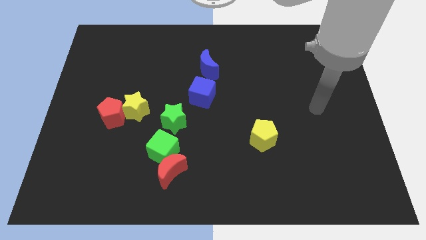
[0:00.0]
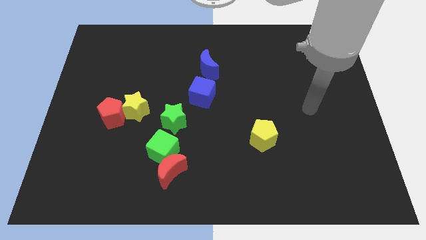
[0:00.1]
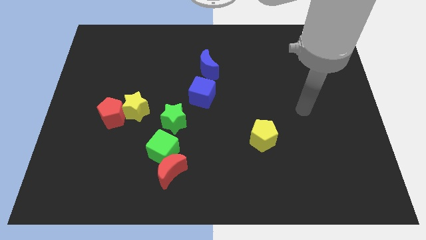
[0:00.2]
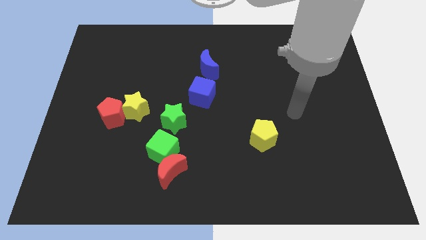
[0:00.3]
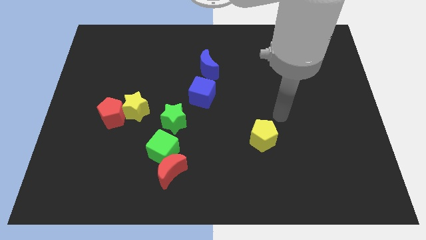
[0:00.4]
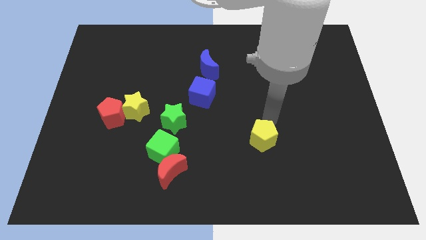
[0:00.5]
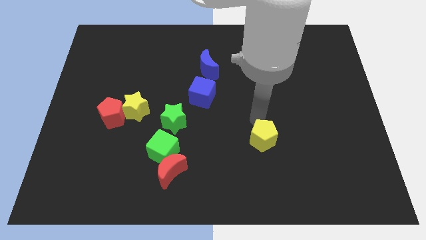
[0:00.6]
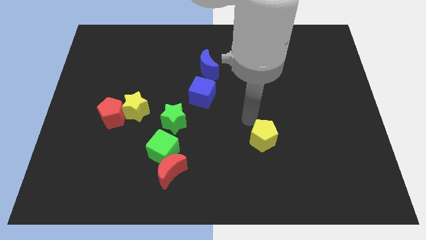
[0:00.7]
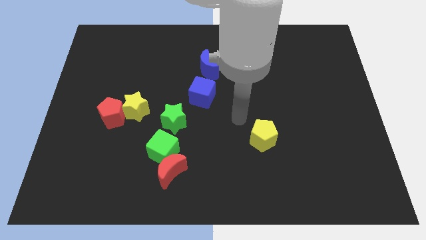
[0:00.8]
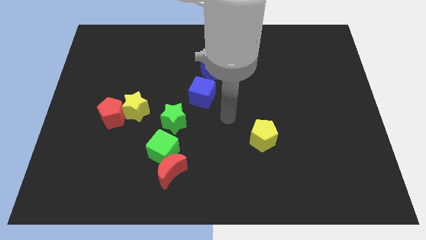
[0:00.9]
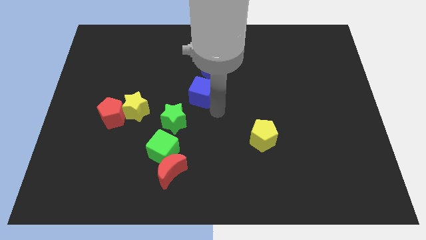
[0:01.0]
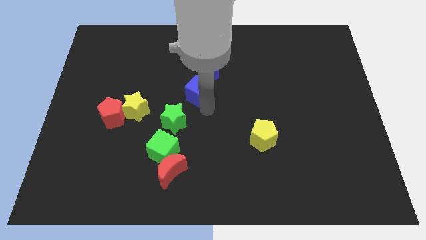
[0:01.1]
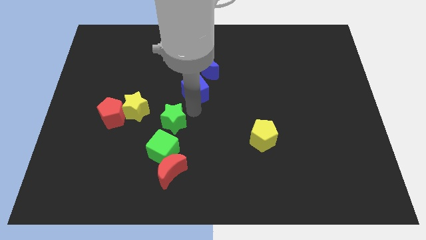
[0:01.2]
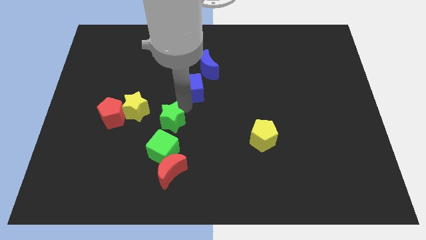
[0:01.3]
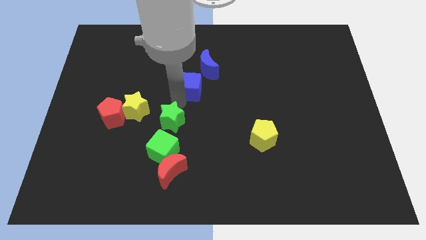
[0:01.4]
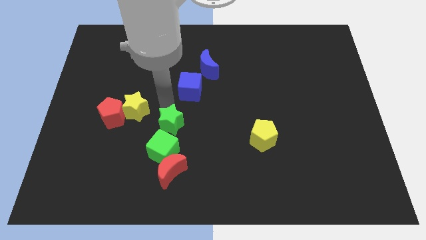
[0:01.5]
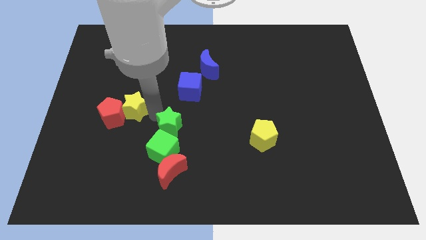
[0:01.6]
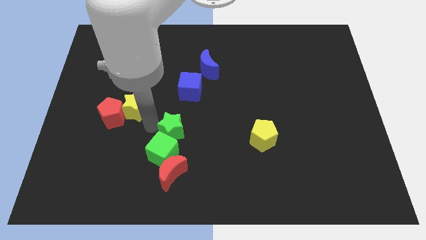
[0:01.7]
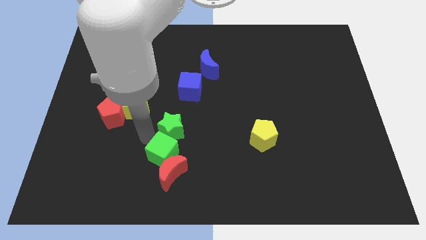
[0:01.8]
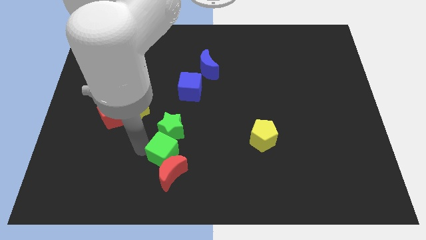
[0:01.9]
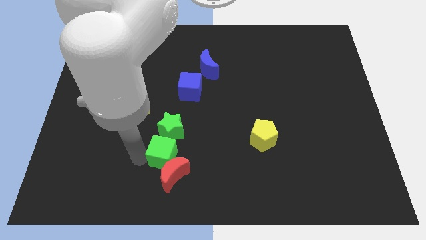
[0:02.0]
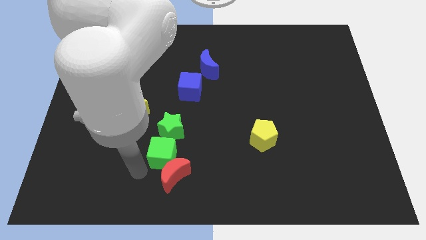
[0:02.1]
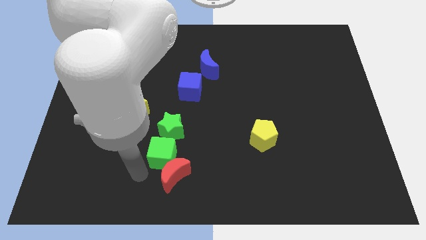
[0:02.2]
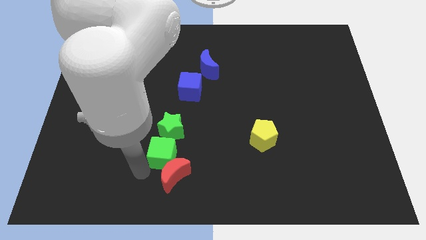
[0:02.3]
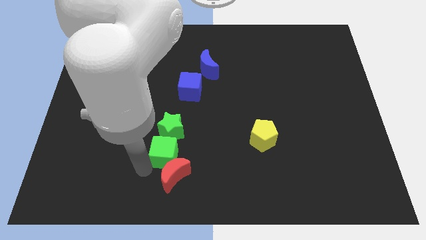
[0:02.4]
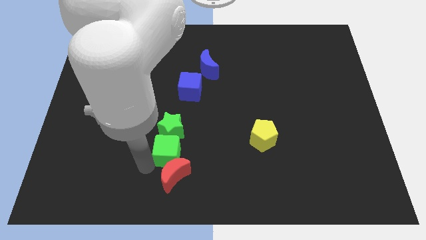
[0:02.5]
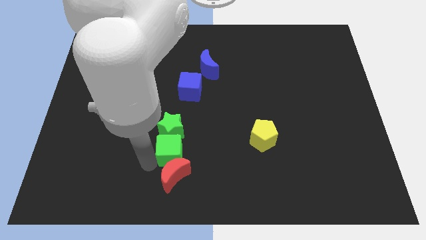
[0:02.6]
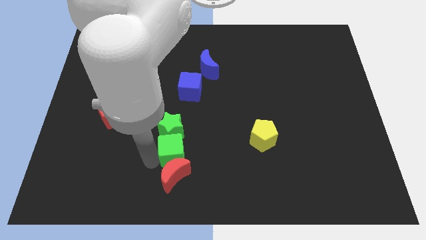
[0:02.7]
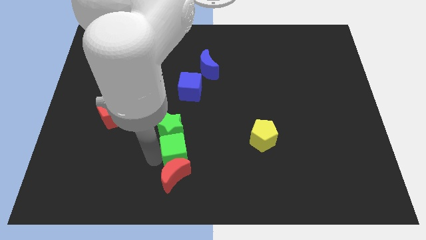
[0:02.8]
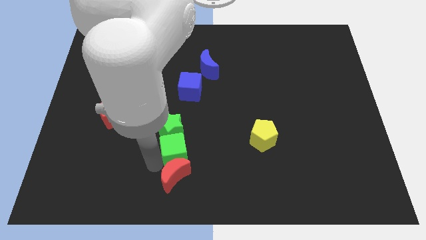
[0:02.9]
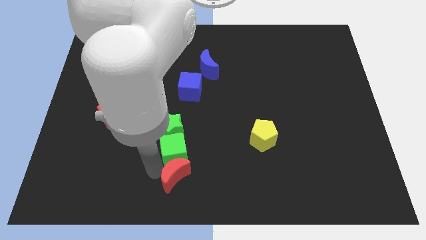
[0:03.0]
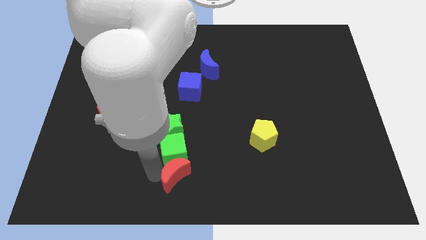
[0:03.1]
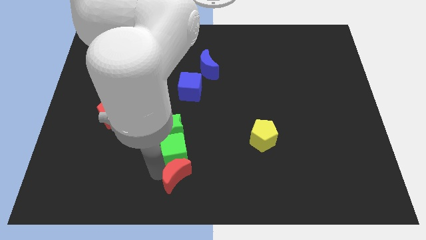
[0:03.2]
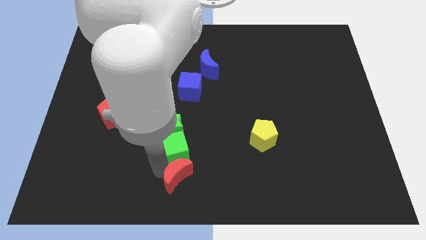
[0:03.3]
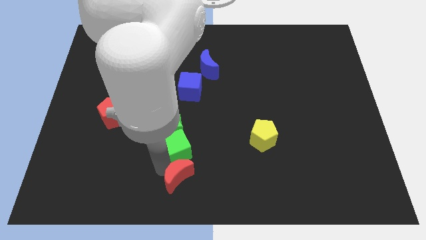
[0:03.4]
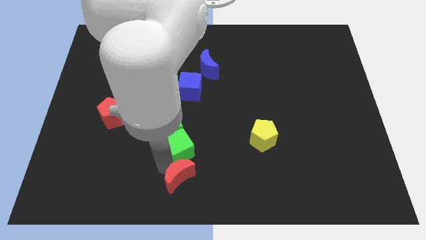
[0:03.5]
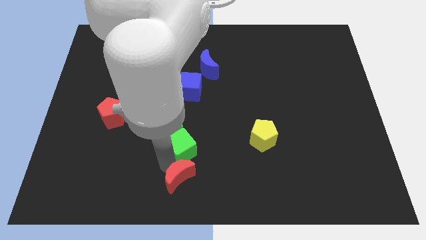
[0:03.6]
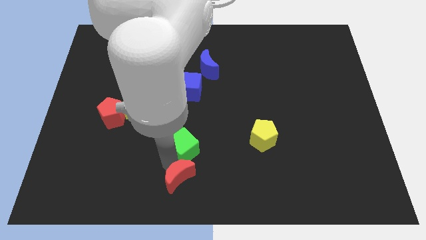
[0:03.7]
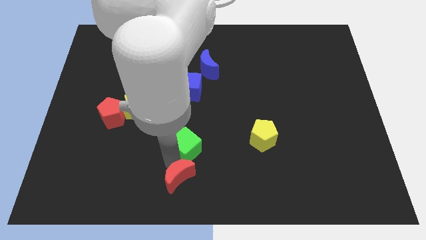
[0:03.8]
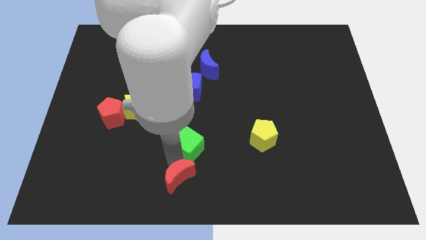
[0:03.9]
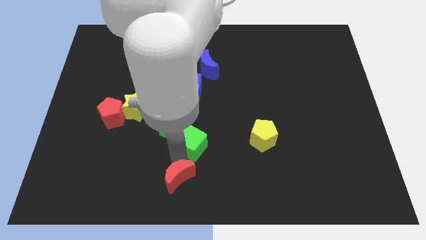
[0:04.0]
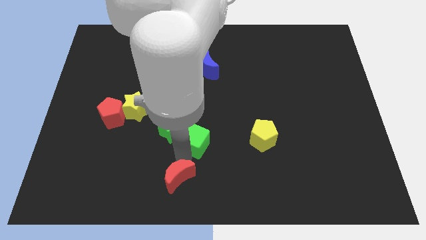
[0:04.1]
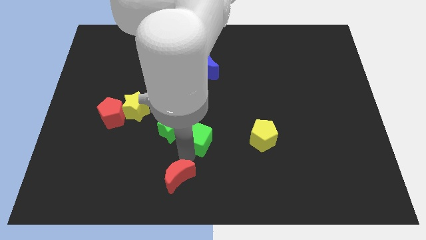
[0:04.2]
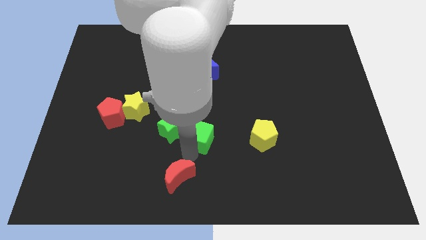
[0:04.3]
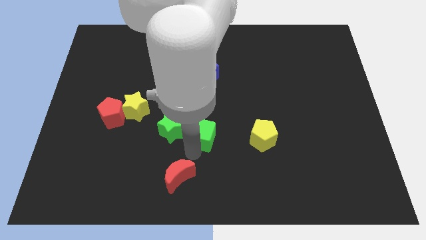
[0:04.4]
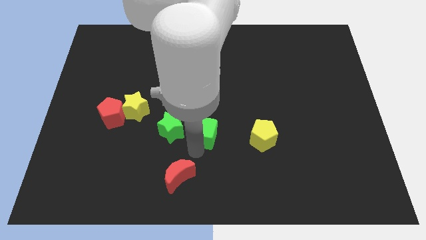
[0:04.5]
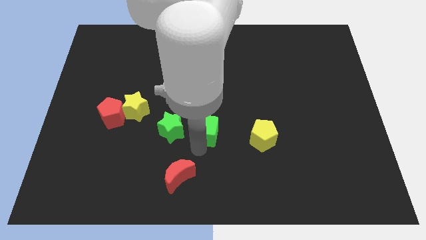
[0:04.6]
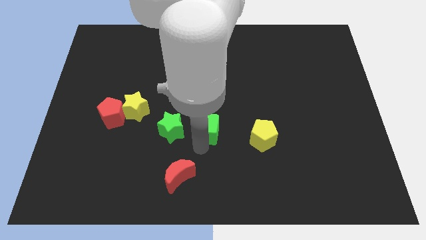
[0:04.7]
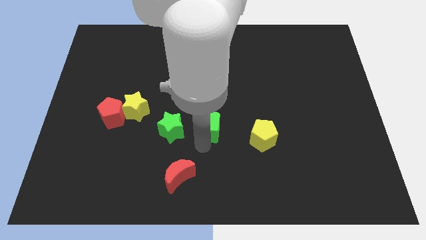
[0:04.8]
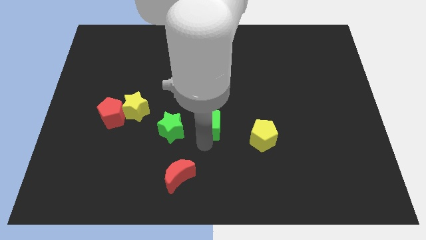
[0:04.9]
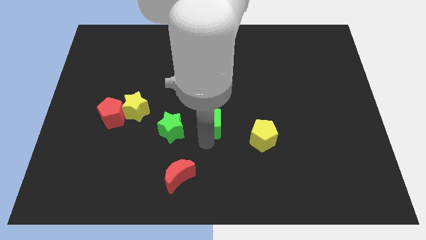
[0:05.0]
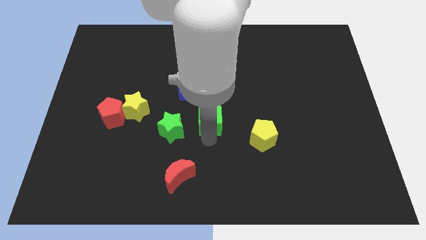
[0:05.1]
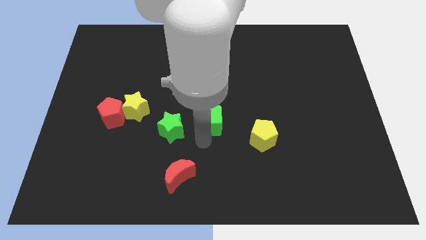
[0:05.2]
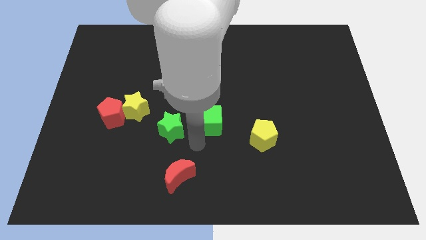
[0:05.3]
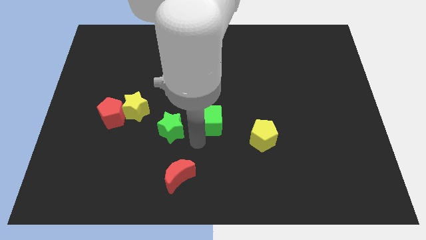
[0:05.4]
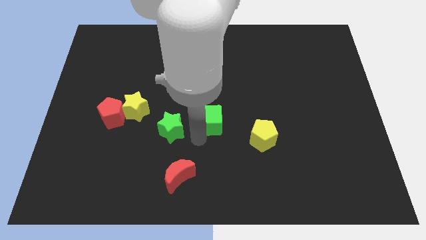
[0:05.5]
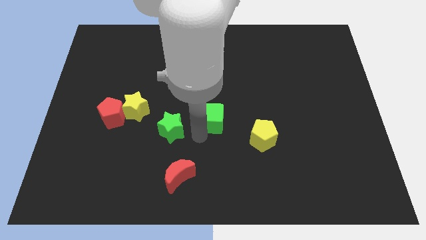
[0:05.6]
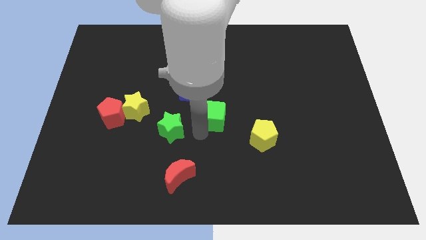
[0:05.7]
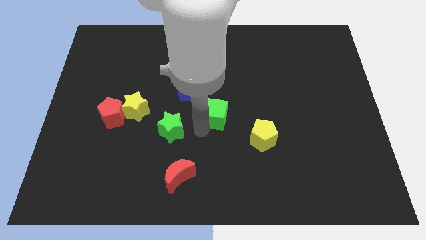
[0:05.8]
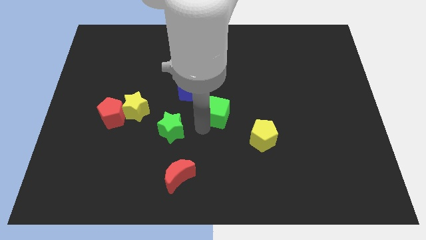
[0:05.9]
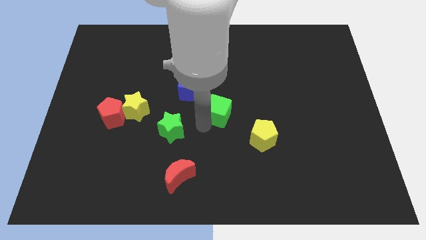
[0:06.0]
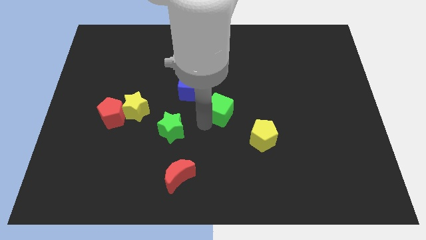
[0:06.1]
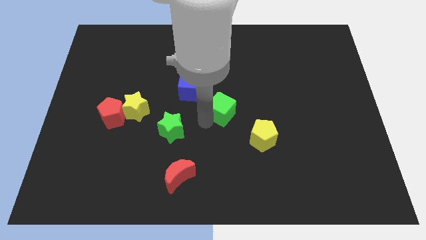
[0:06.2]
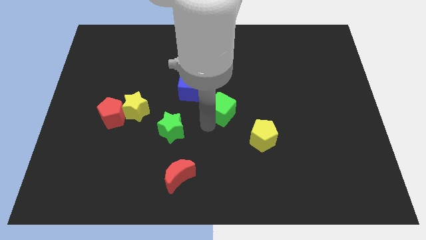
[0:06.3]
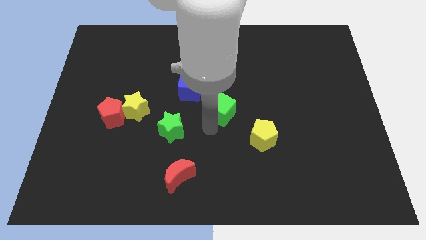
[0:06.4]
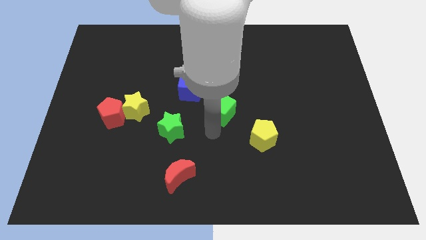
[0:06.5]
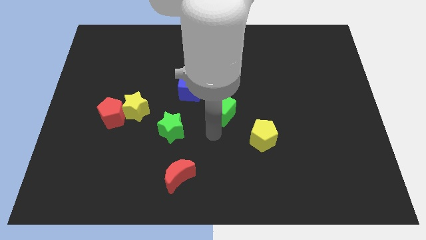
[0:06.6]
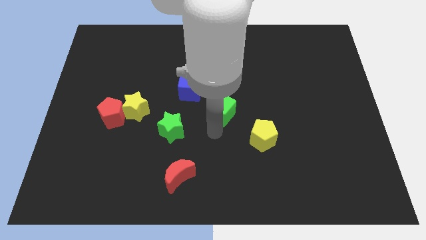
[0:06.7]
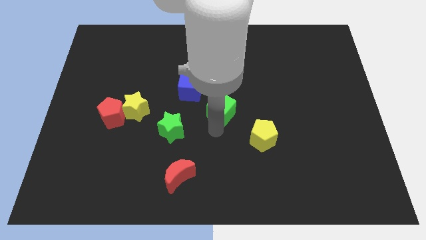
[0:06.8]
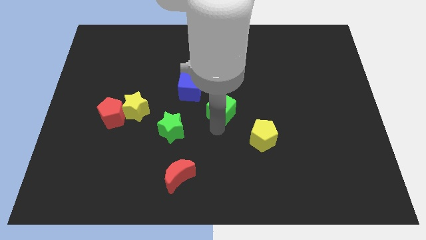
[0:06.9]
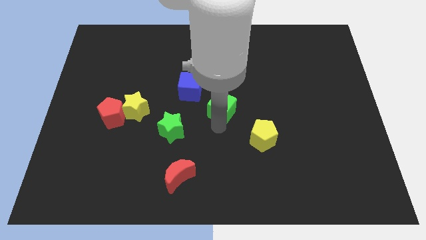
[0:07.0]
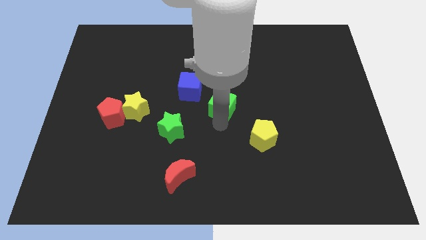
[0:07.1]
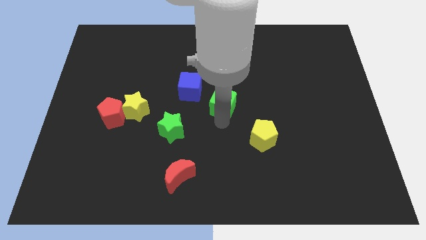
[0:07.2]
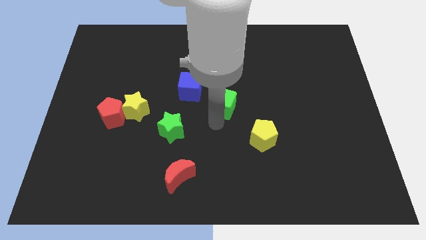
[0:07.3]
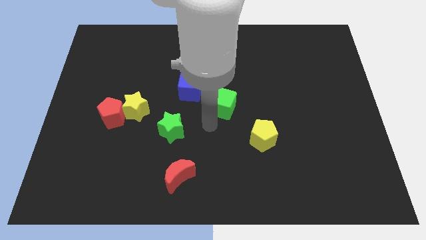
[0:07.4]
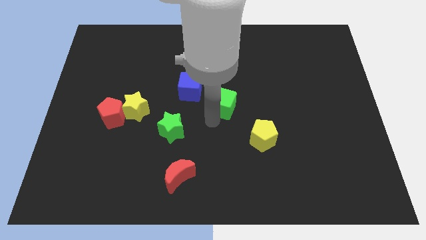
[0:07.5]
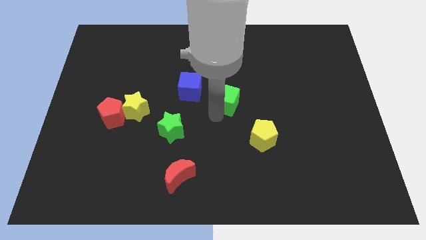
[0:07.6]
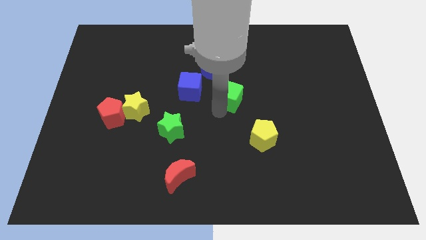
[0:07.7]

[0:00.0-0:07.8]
move the green cube up and to the right
